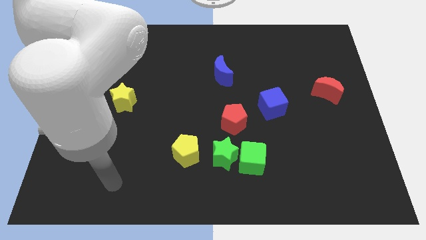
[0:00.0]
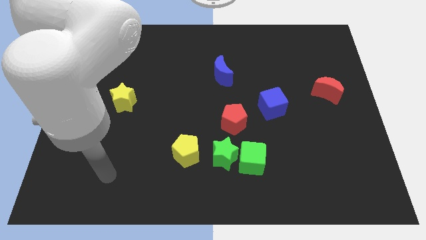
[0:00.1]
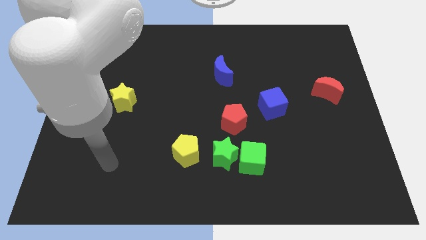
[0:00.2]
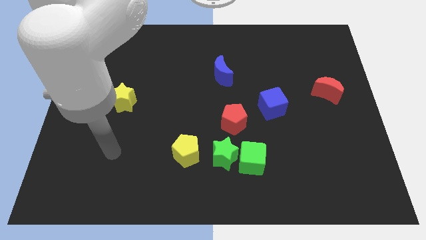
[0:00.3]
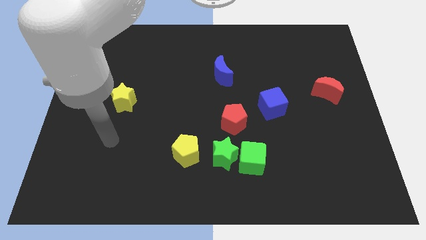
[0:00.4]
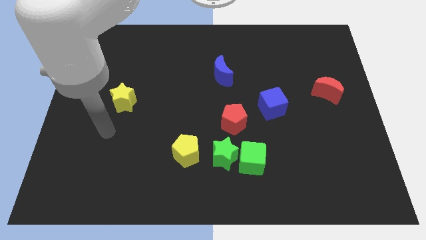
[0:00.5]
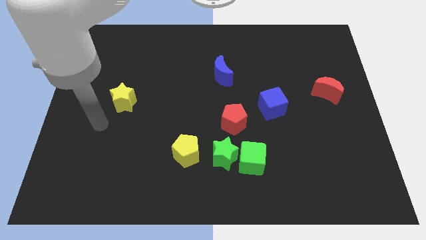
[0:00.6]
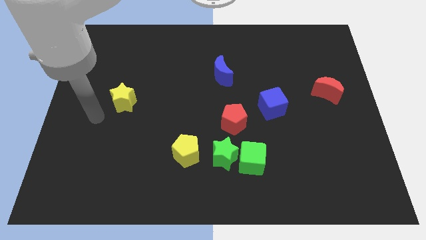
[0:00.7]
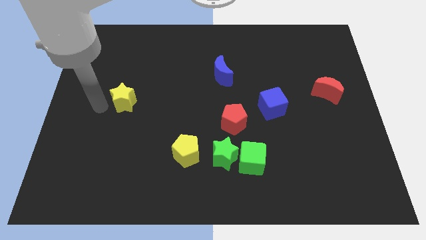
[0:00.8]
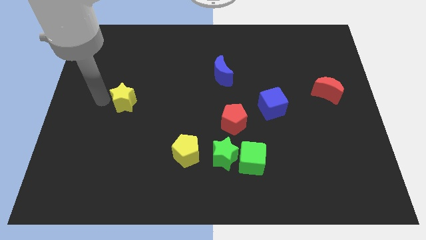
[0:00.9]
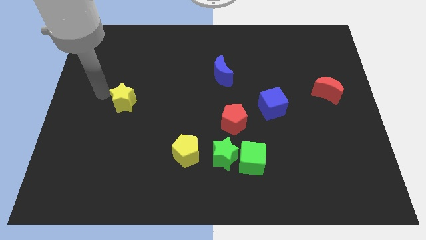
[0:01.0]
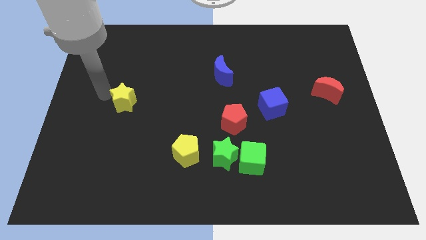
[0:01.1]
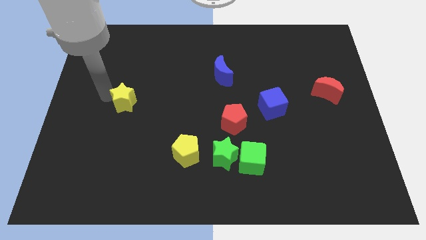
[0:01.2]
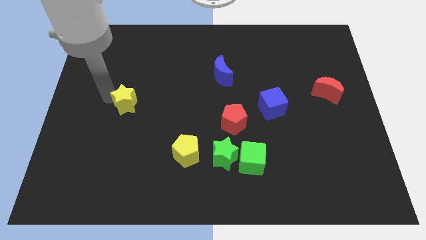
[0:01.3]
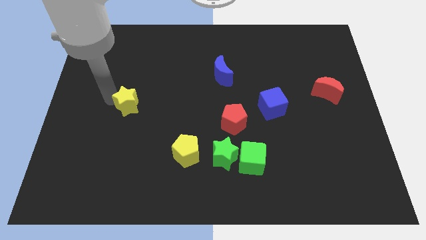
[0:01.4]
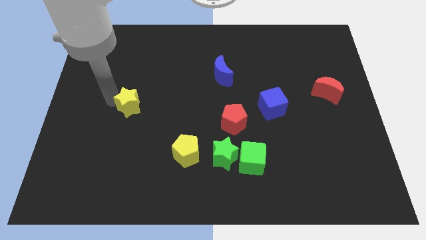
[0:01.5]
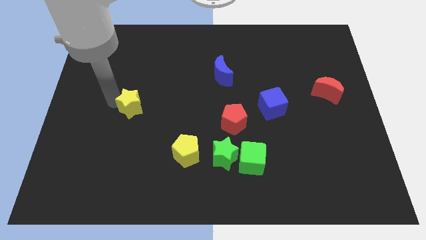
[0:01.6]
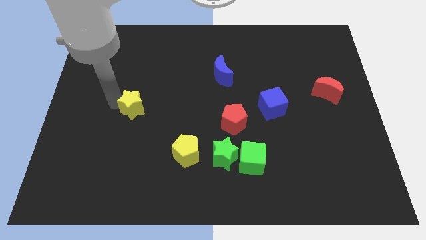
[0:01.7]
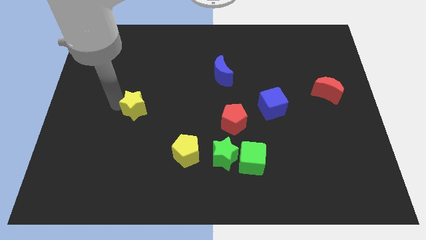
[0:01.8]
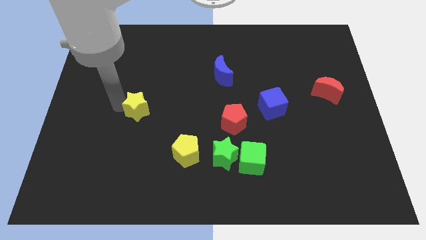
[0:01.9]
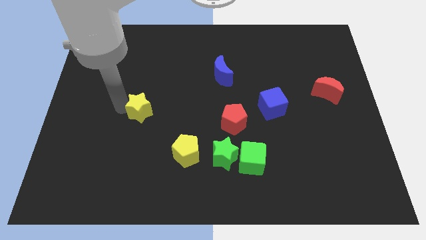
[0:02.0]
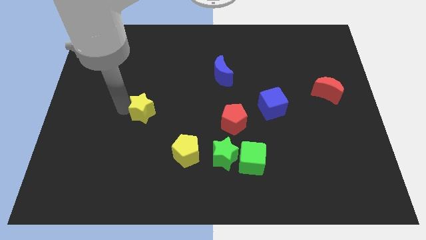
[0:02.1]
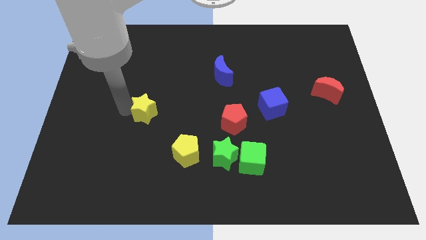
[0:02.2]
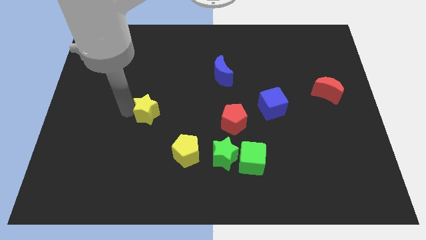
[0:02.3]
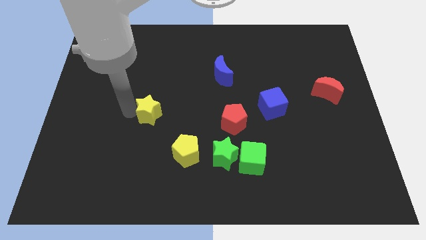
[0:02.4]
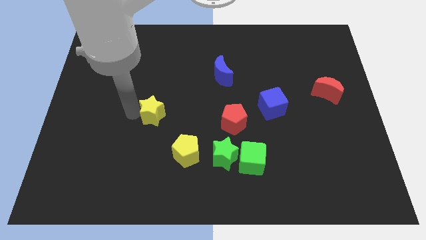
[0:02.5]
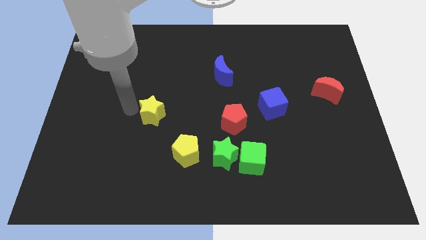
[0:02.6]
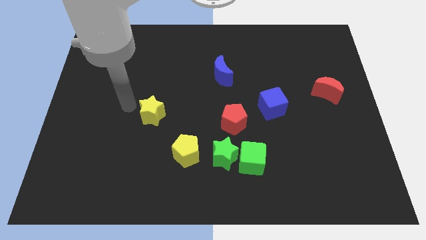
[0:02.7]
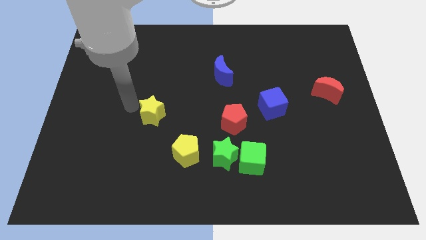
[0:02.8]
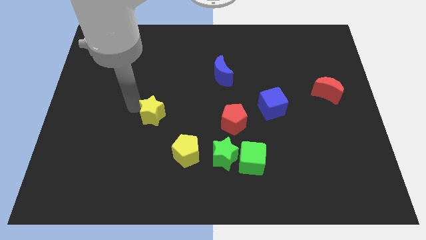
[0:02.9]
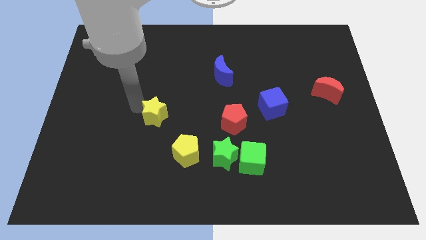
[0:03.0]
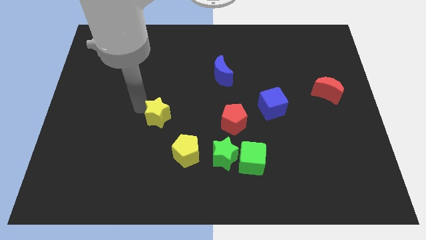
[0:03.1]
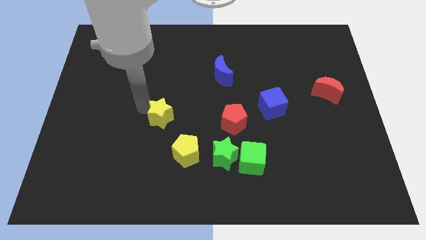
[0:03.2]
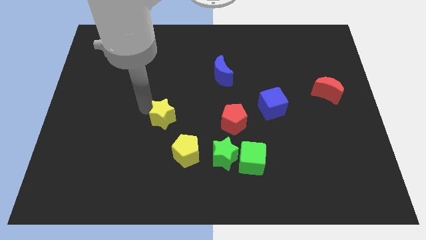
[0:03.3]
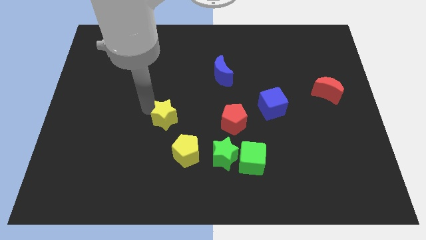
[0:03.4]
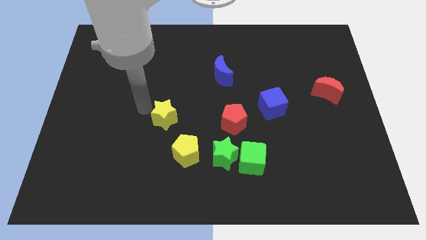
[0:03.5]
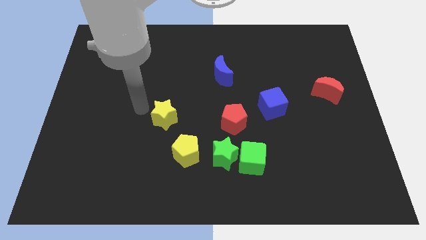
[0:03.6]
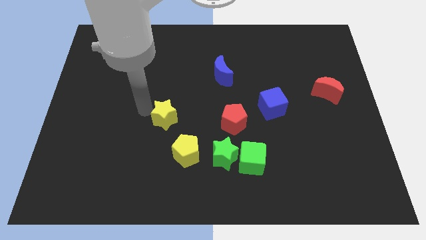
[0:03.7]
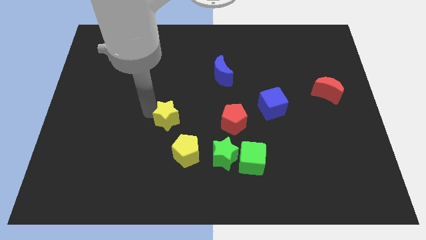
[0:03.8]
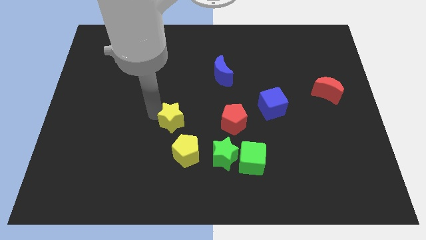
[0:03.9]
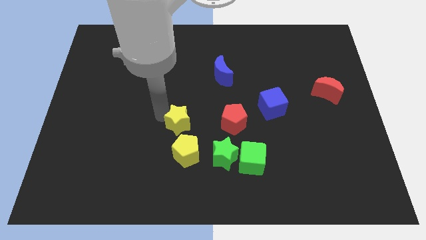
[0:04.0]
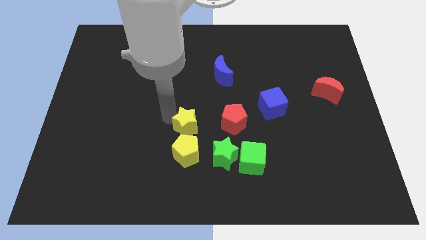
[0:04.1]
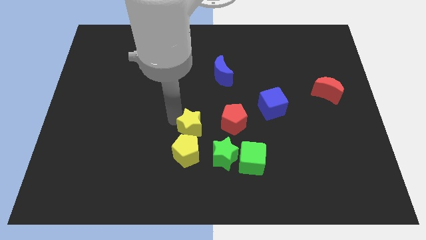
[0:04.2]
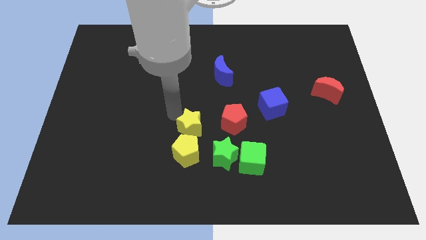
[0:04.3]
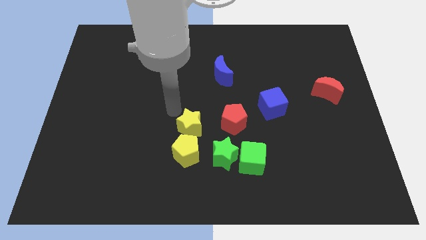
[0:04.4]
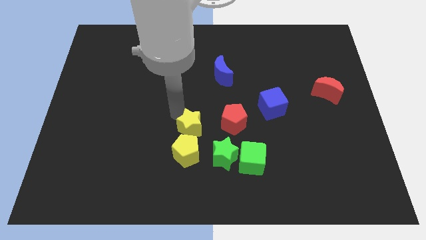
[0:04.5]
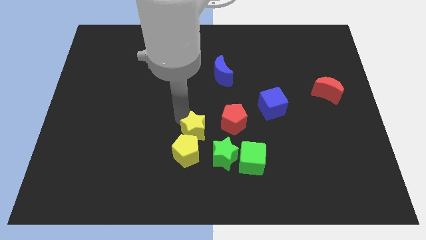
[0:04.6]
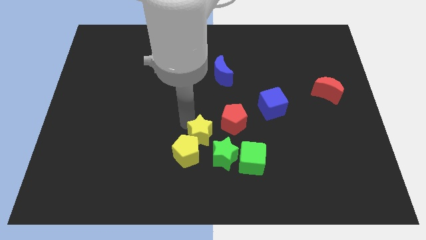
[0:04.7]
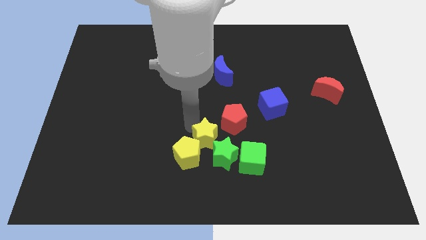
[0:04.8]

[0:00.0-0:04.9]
push the yellow star close to the green star

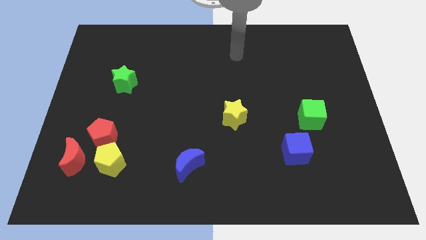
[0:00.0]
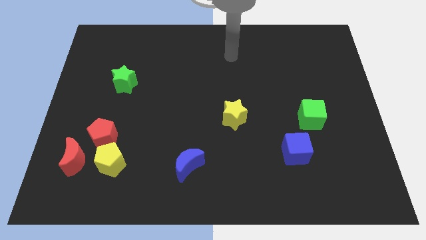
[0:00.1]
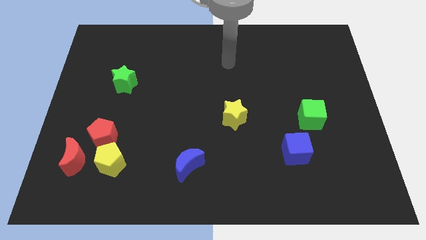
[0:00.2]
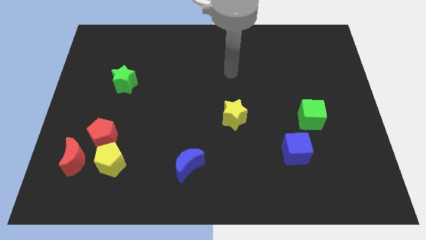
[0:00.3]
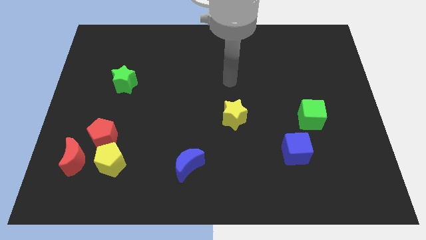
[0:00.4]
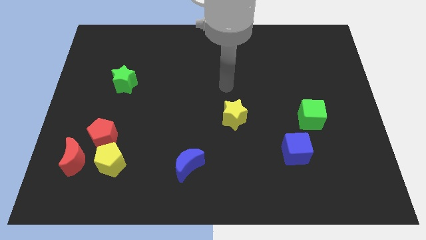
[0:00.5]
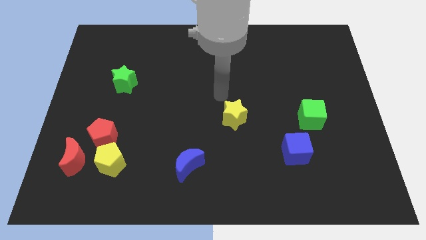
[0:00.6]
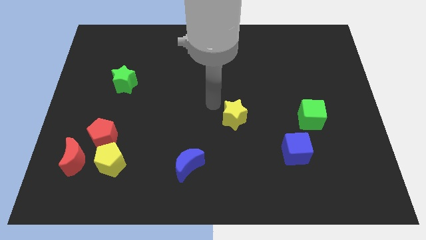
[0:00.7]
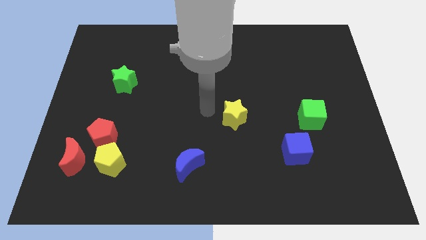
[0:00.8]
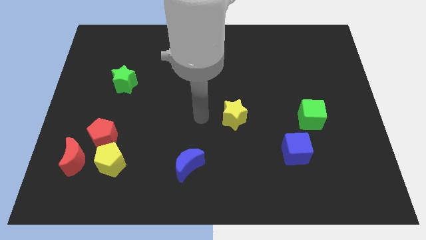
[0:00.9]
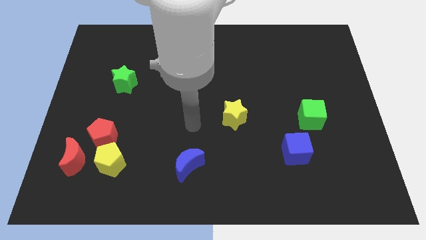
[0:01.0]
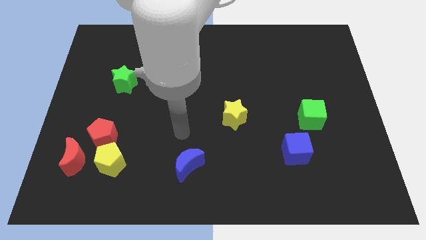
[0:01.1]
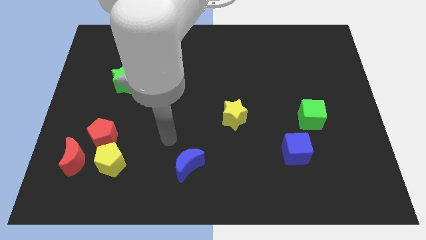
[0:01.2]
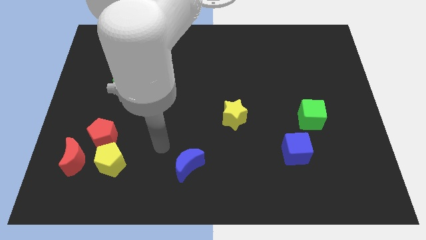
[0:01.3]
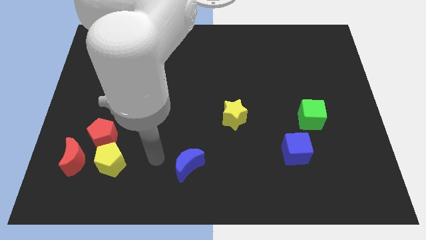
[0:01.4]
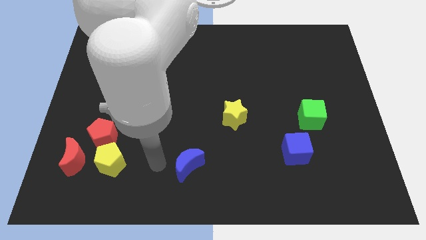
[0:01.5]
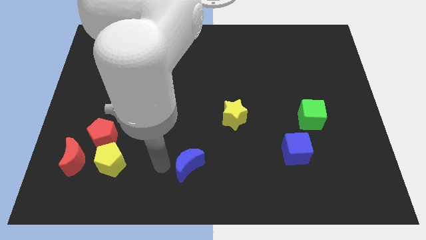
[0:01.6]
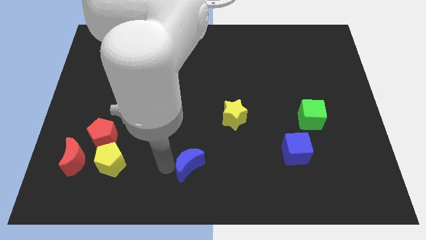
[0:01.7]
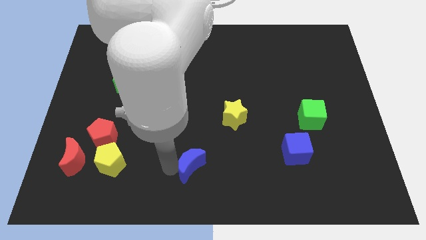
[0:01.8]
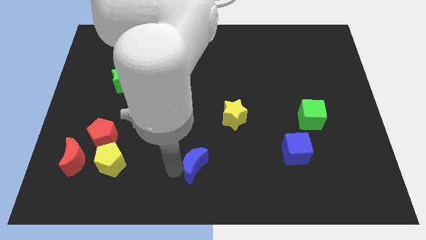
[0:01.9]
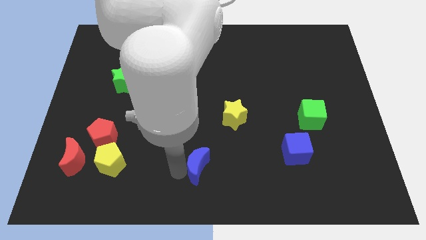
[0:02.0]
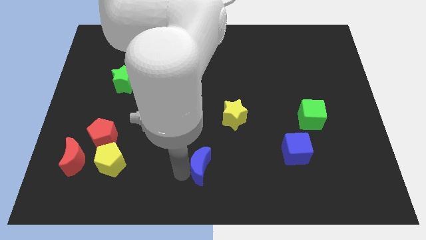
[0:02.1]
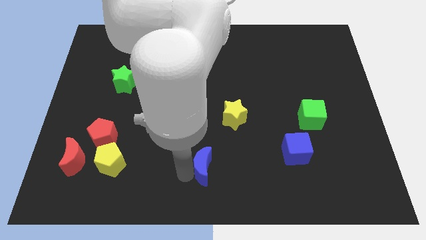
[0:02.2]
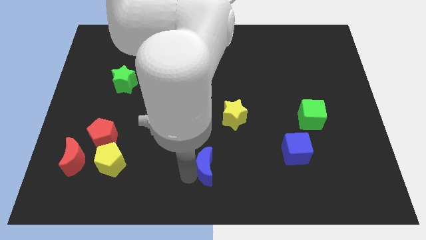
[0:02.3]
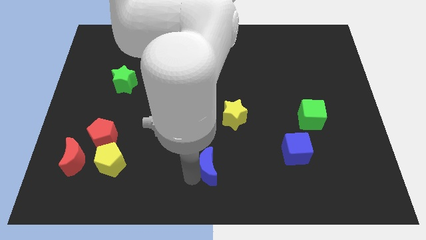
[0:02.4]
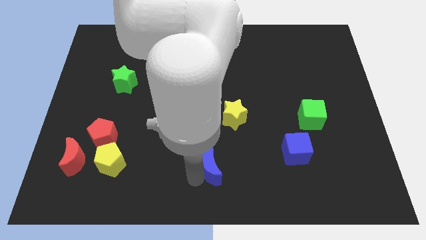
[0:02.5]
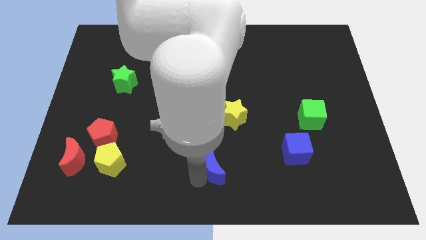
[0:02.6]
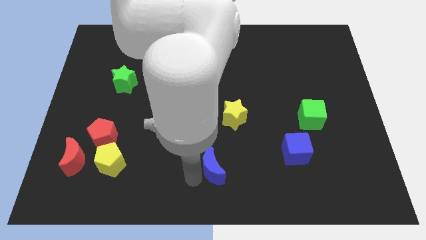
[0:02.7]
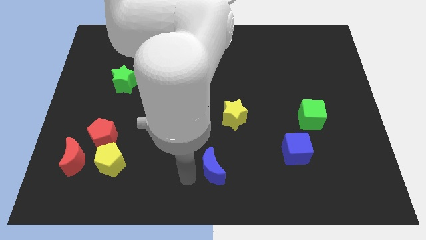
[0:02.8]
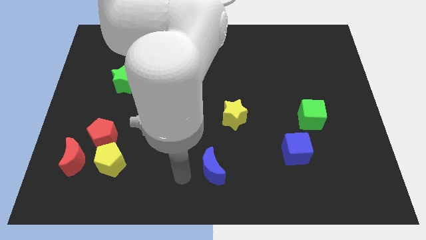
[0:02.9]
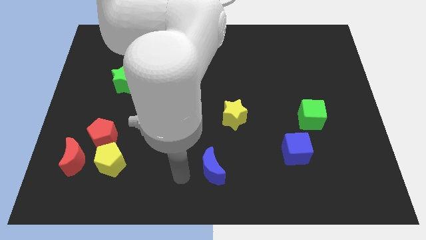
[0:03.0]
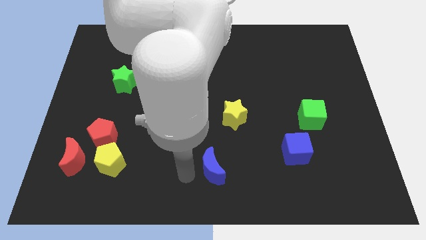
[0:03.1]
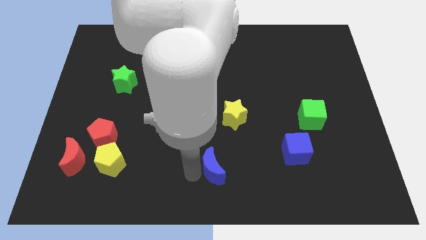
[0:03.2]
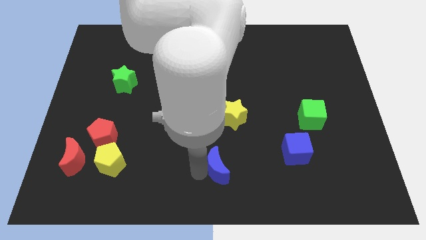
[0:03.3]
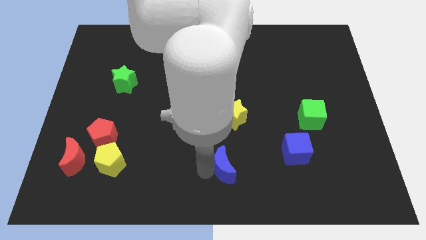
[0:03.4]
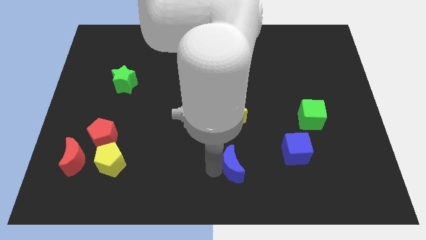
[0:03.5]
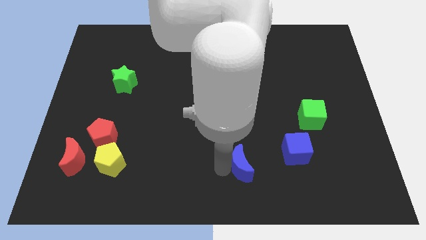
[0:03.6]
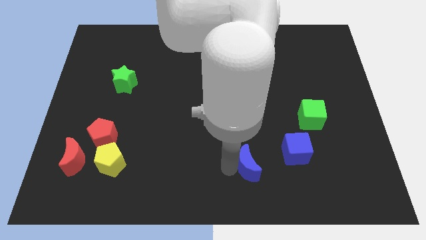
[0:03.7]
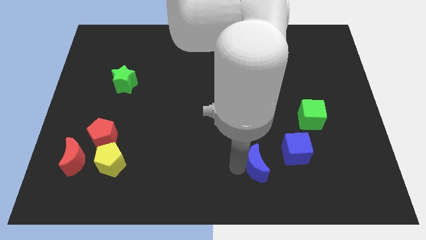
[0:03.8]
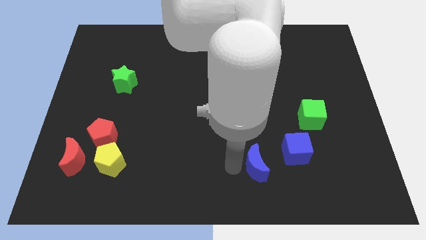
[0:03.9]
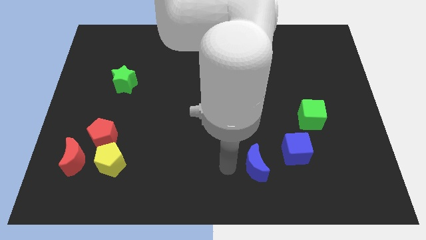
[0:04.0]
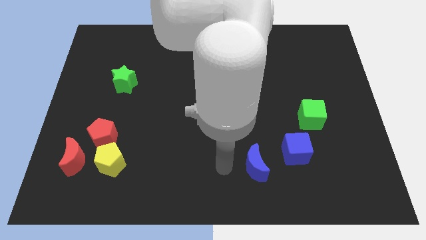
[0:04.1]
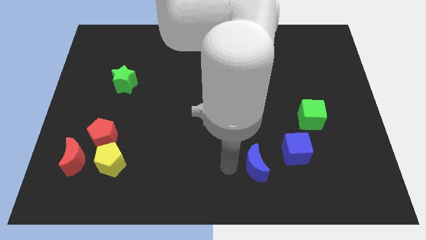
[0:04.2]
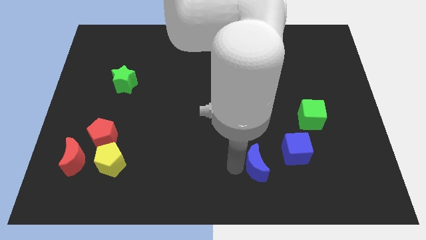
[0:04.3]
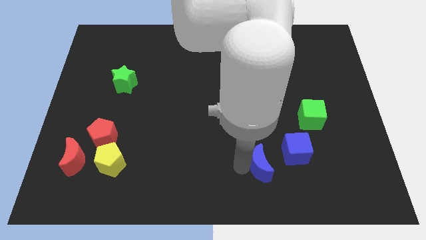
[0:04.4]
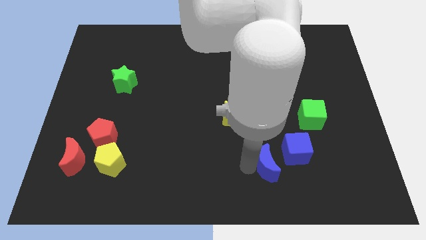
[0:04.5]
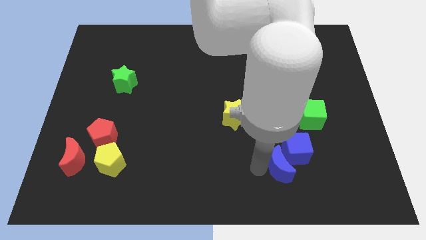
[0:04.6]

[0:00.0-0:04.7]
put the blue moon to the blue cube
